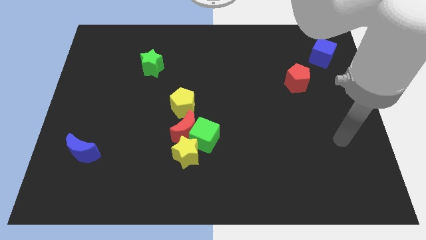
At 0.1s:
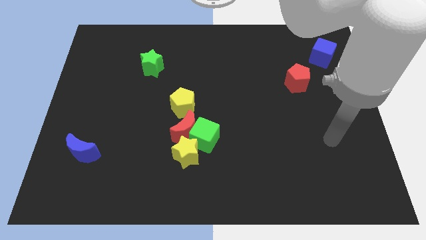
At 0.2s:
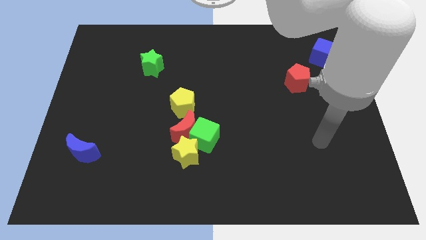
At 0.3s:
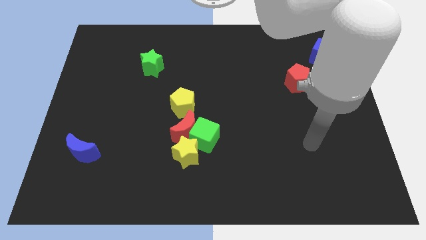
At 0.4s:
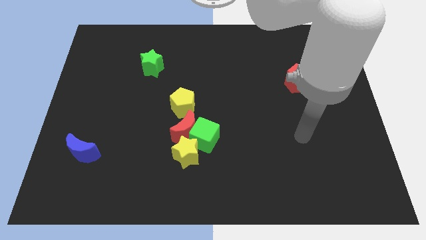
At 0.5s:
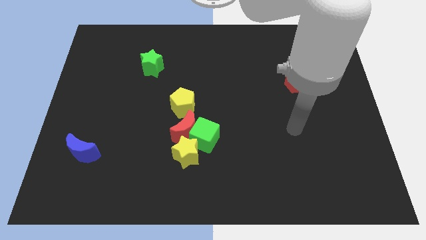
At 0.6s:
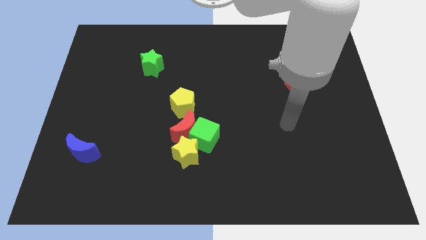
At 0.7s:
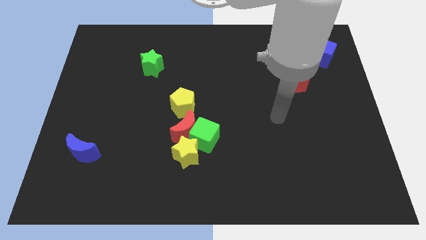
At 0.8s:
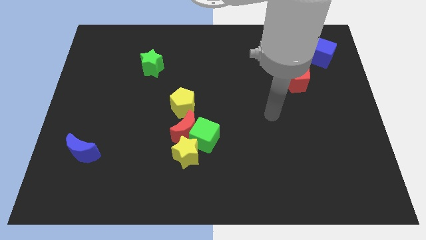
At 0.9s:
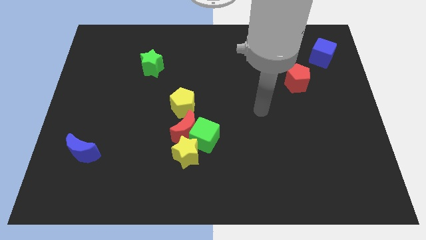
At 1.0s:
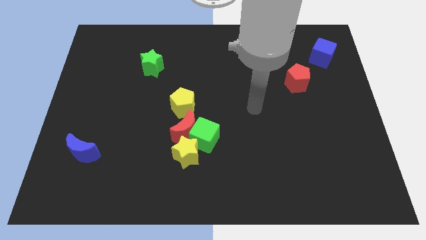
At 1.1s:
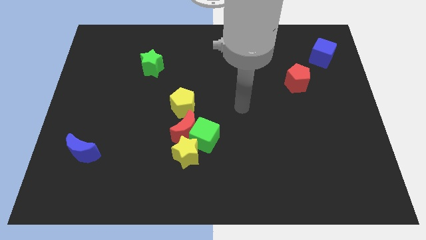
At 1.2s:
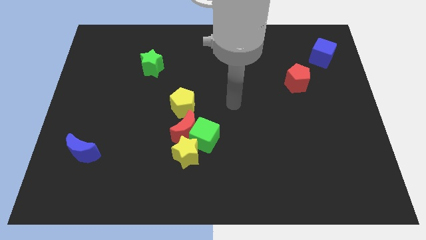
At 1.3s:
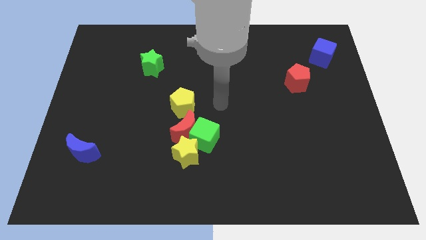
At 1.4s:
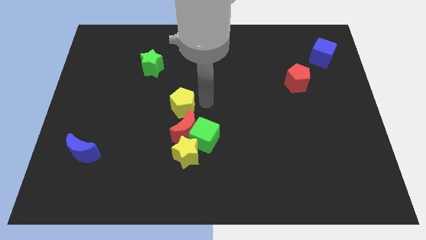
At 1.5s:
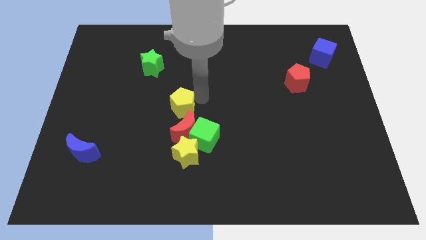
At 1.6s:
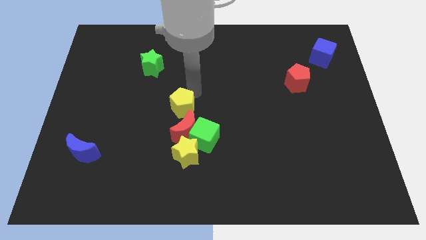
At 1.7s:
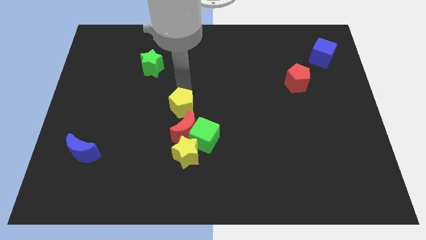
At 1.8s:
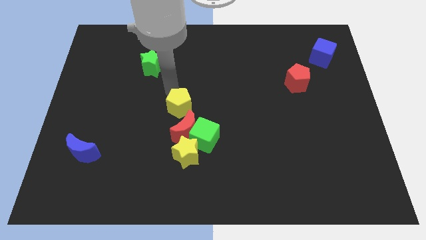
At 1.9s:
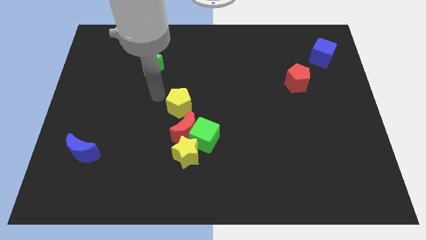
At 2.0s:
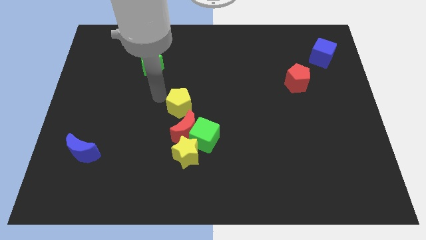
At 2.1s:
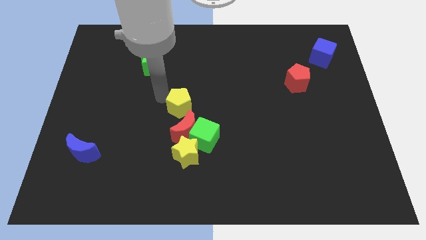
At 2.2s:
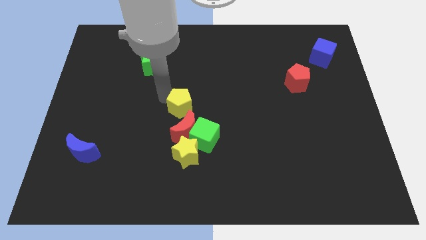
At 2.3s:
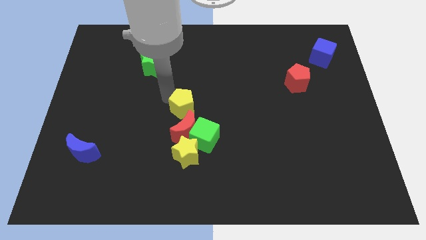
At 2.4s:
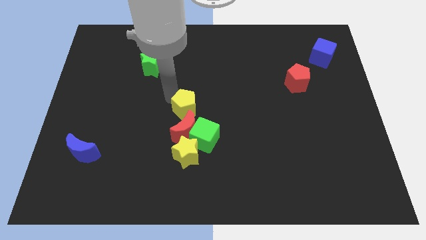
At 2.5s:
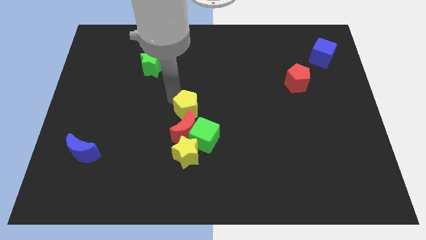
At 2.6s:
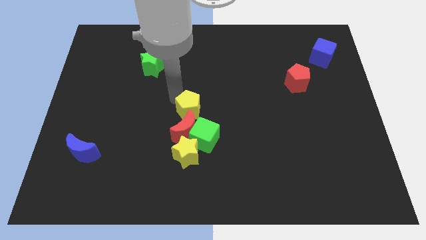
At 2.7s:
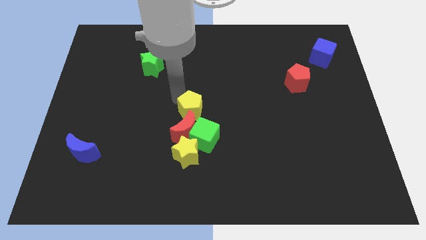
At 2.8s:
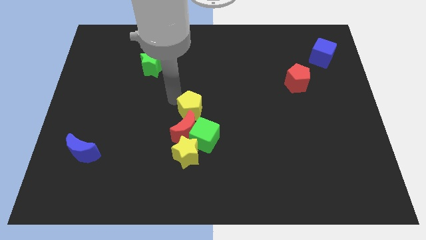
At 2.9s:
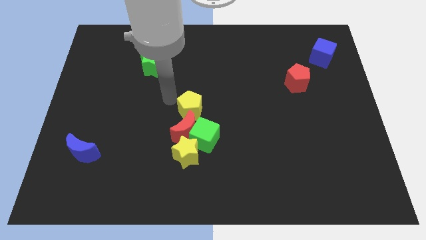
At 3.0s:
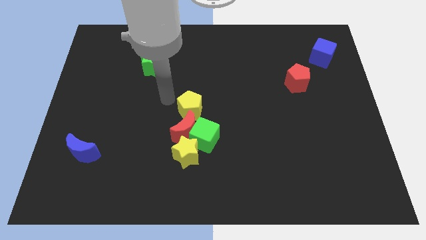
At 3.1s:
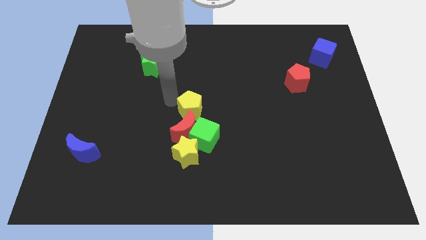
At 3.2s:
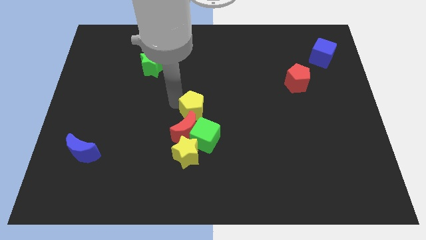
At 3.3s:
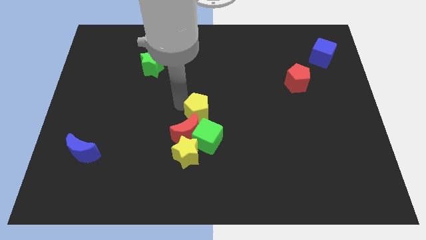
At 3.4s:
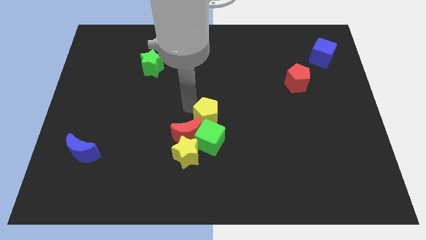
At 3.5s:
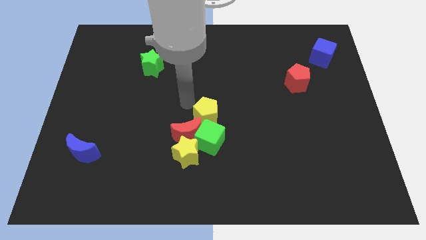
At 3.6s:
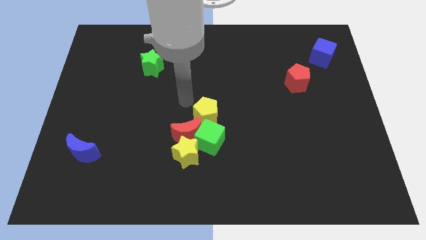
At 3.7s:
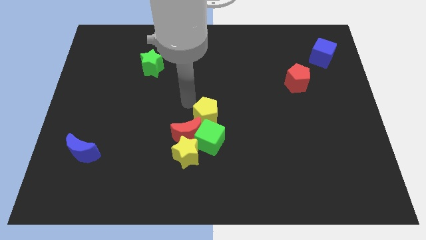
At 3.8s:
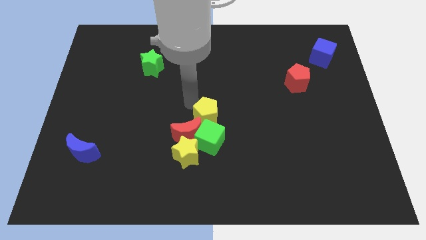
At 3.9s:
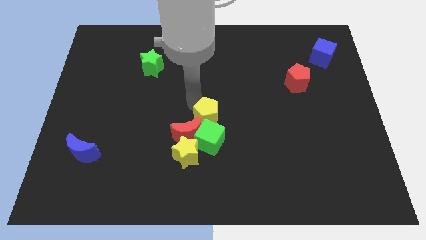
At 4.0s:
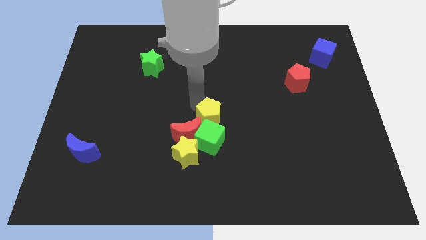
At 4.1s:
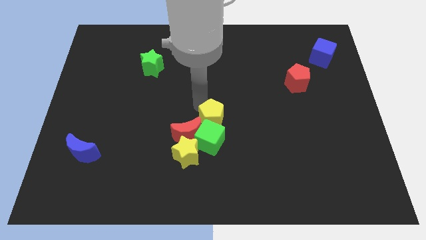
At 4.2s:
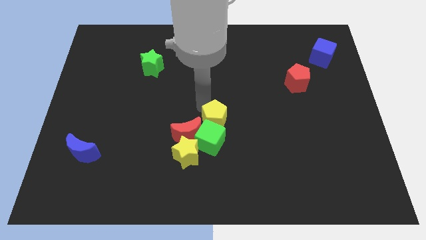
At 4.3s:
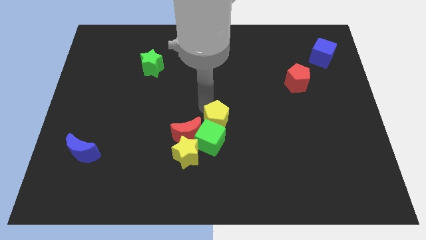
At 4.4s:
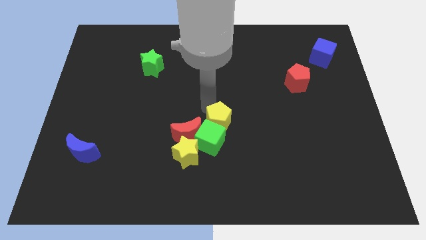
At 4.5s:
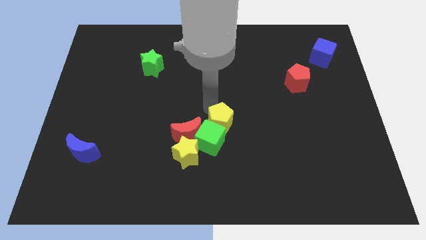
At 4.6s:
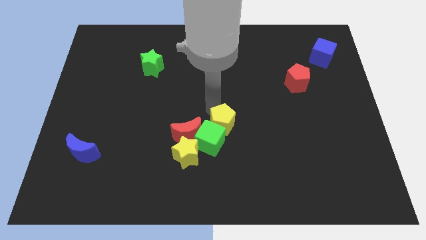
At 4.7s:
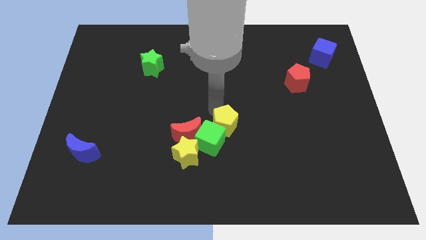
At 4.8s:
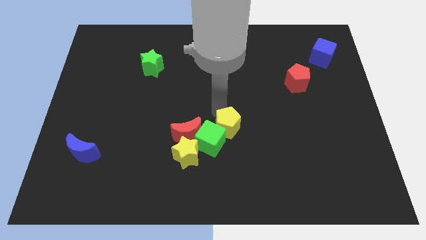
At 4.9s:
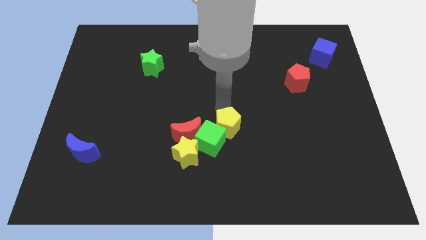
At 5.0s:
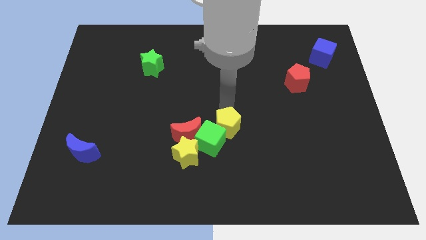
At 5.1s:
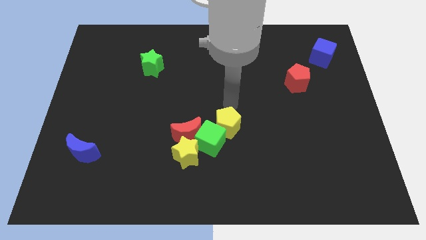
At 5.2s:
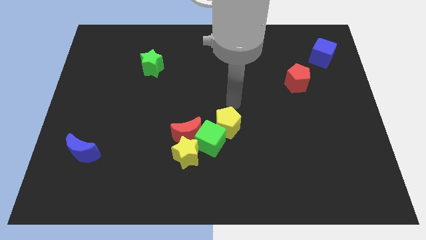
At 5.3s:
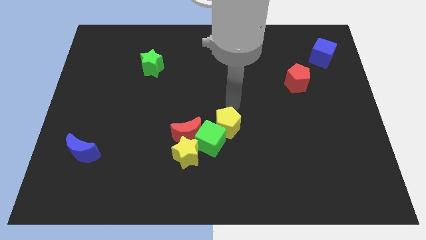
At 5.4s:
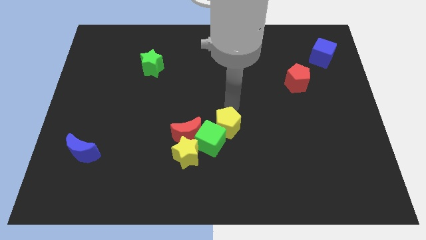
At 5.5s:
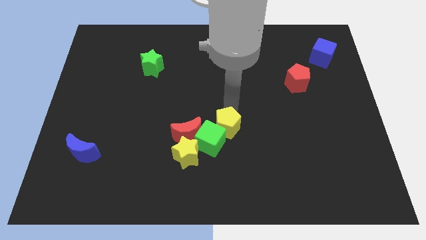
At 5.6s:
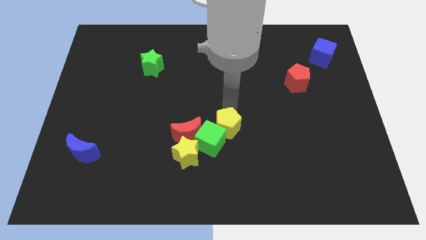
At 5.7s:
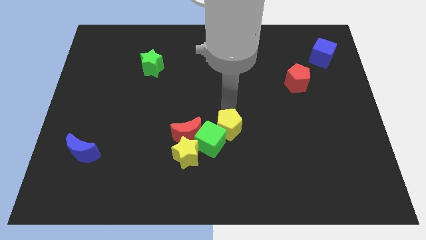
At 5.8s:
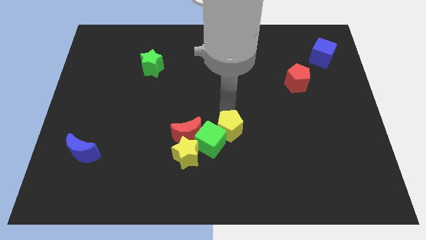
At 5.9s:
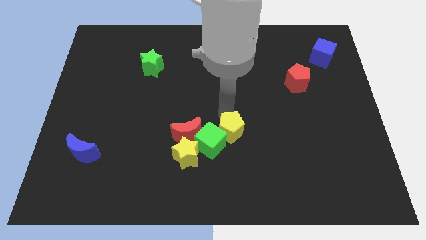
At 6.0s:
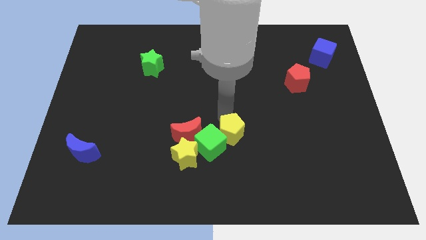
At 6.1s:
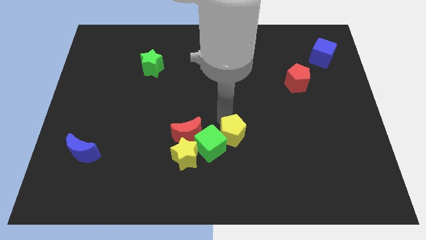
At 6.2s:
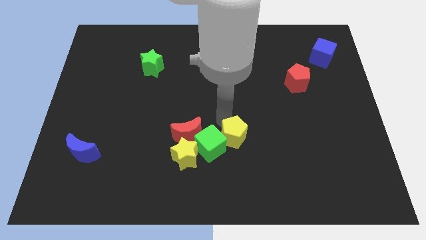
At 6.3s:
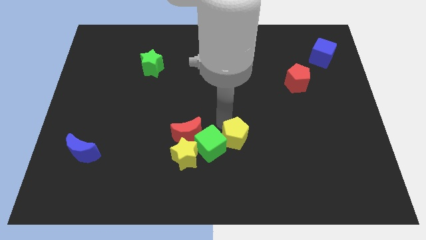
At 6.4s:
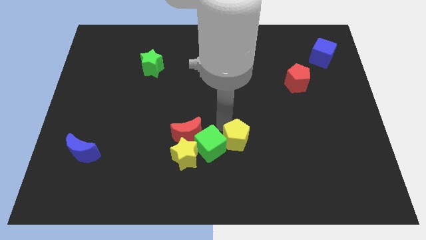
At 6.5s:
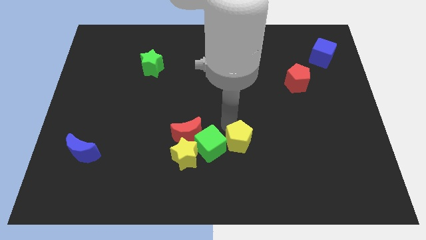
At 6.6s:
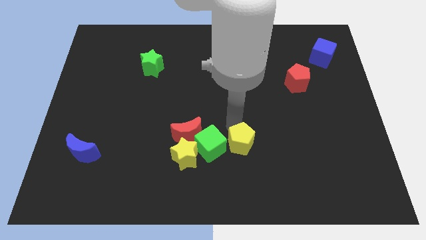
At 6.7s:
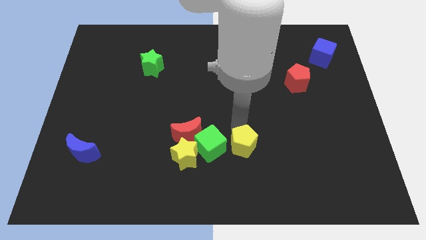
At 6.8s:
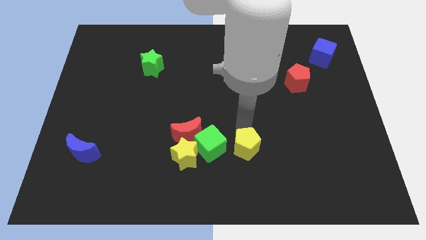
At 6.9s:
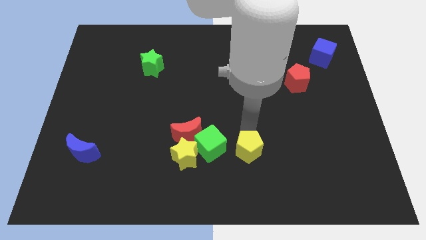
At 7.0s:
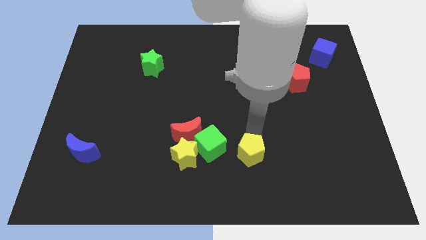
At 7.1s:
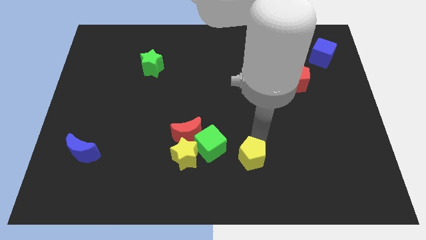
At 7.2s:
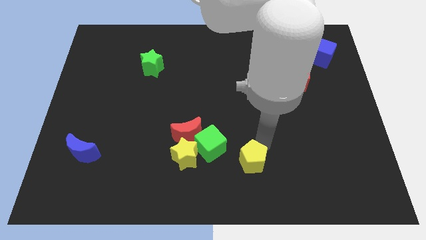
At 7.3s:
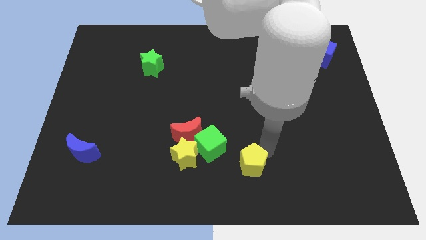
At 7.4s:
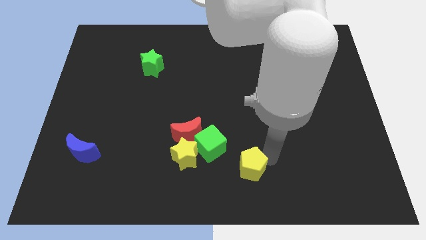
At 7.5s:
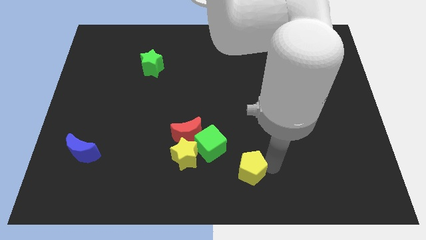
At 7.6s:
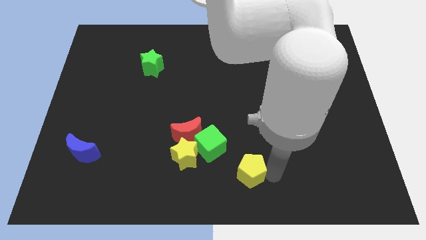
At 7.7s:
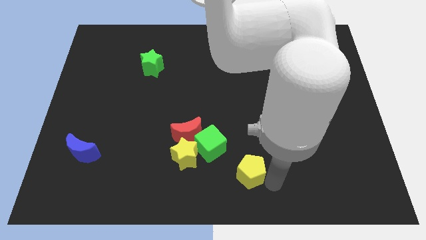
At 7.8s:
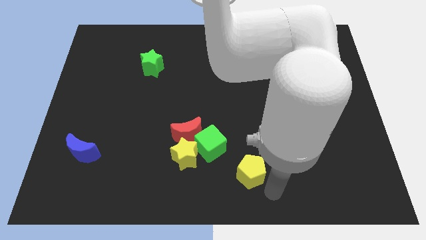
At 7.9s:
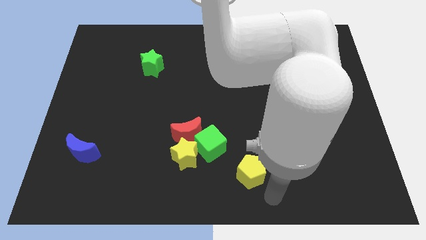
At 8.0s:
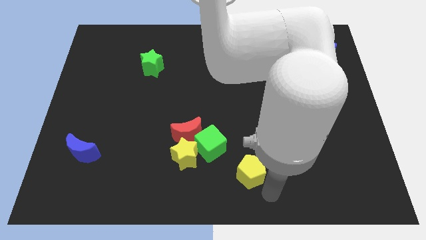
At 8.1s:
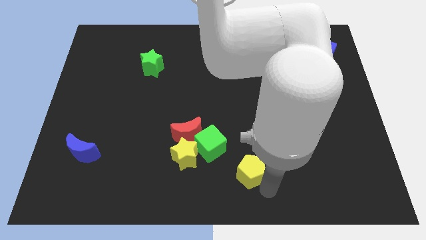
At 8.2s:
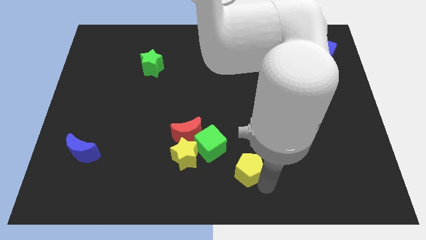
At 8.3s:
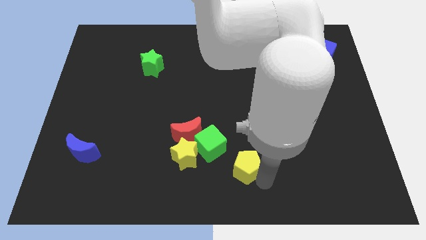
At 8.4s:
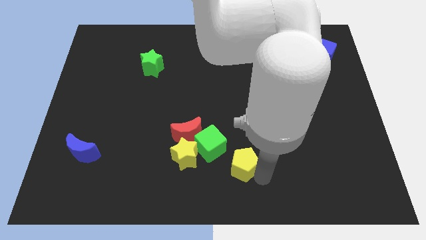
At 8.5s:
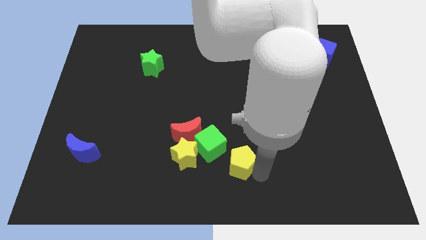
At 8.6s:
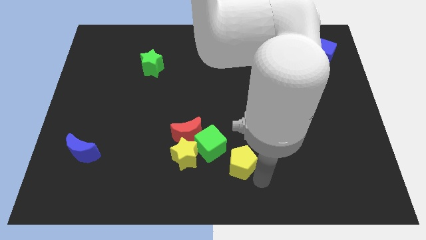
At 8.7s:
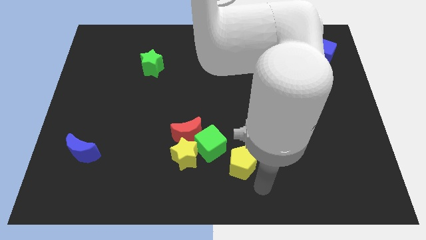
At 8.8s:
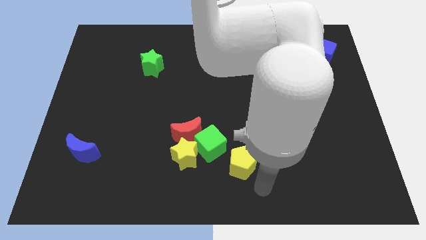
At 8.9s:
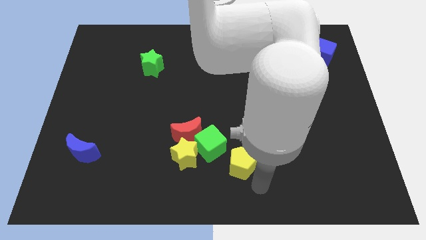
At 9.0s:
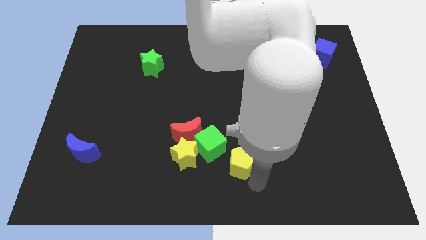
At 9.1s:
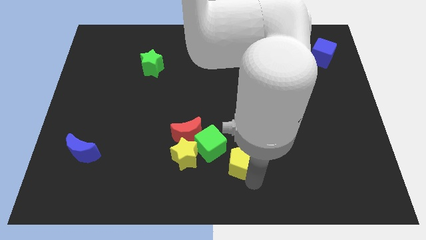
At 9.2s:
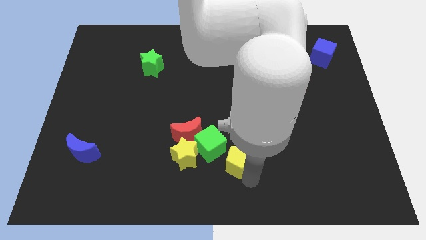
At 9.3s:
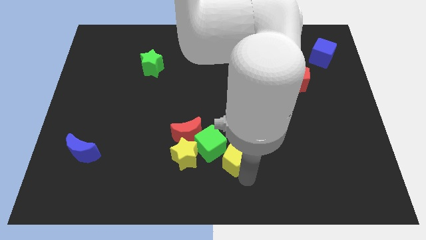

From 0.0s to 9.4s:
move the yellow pentagon diagonally down and to the right of the red moon
